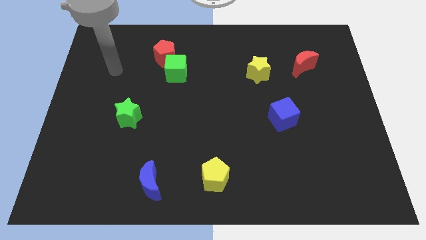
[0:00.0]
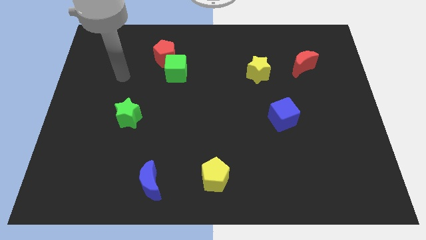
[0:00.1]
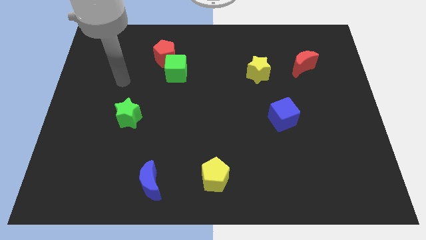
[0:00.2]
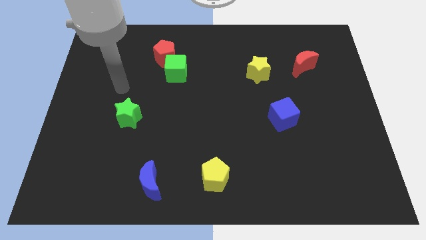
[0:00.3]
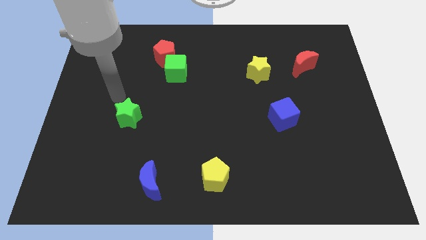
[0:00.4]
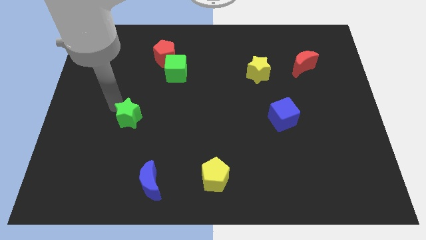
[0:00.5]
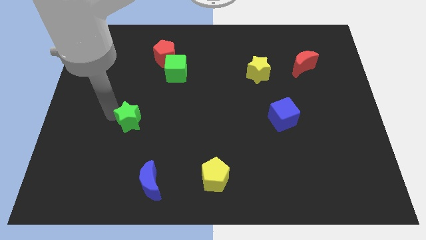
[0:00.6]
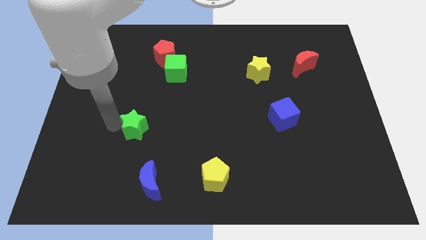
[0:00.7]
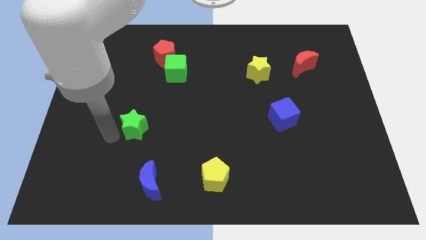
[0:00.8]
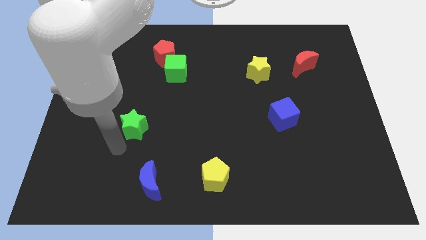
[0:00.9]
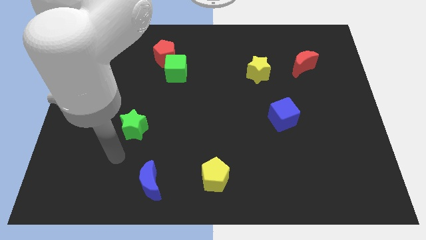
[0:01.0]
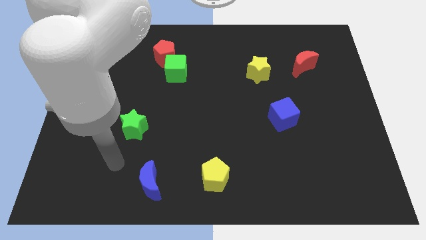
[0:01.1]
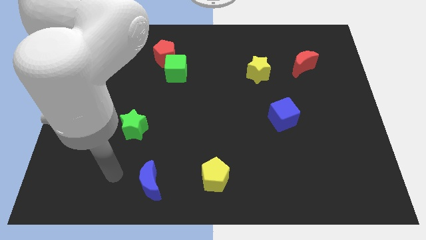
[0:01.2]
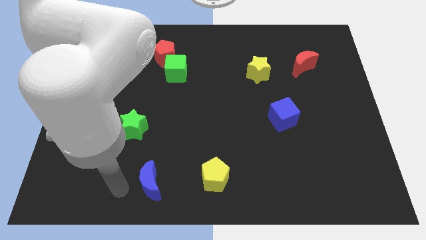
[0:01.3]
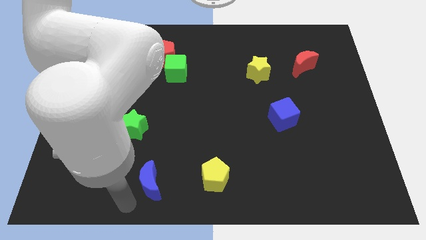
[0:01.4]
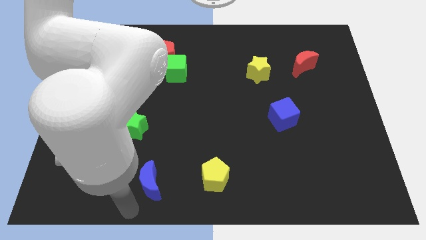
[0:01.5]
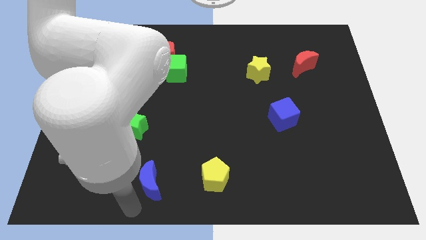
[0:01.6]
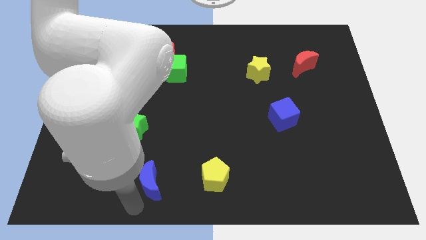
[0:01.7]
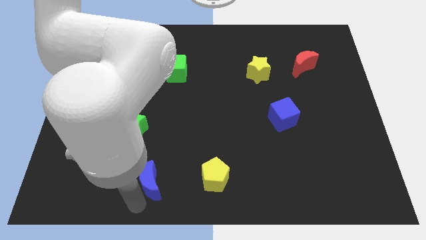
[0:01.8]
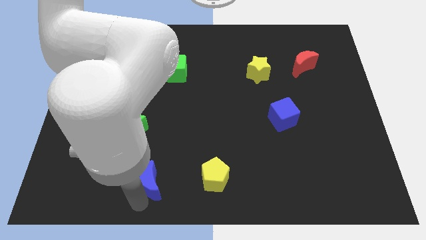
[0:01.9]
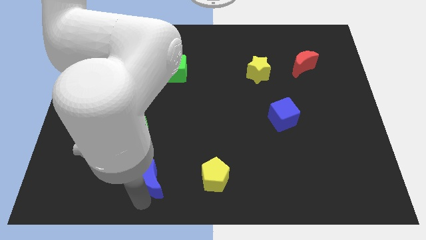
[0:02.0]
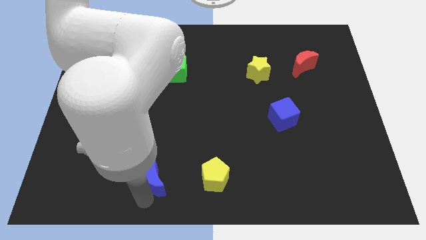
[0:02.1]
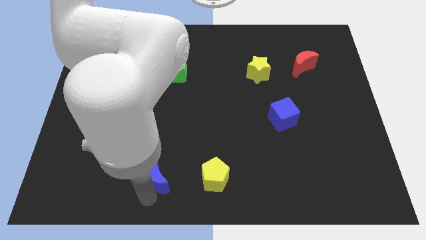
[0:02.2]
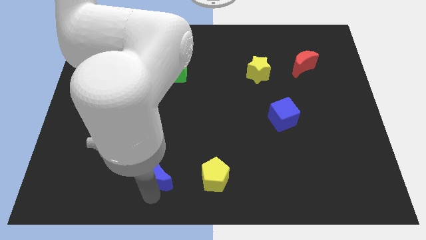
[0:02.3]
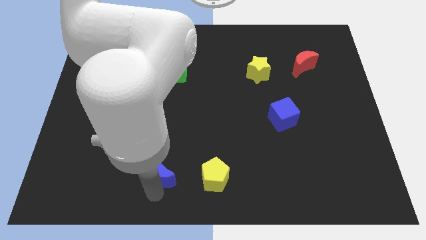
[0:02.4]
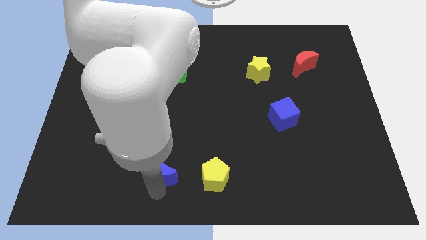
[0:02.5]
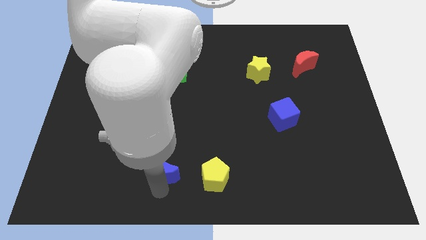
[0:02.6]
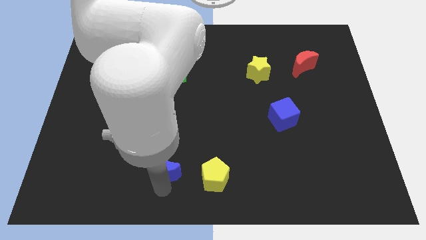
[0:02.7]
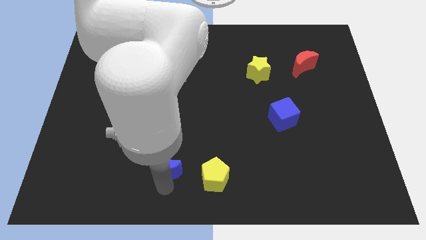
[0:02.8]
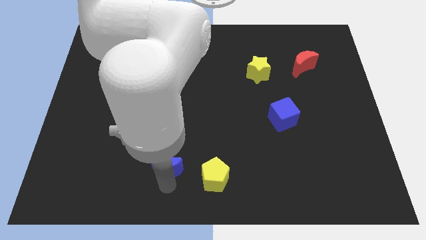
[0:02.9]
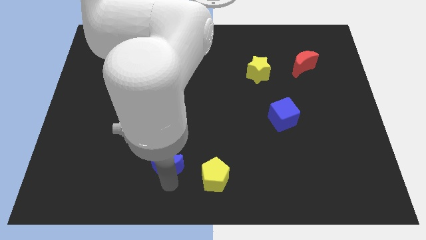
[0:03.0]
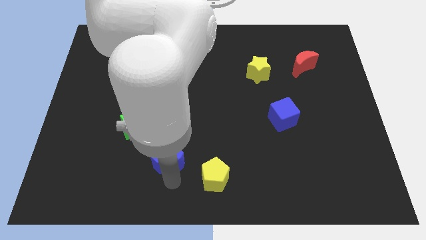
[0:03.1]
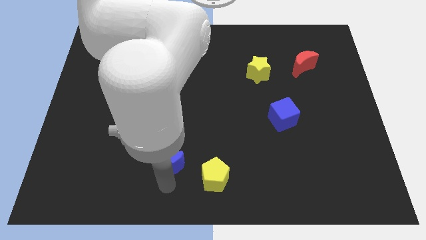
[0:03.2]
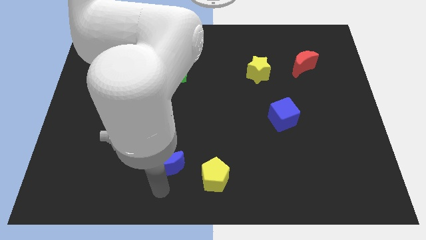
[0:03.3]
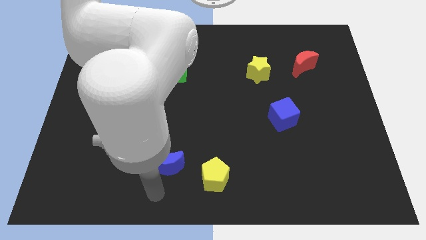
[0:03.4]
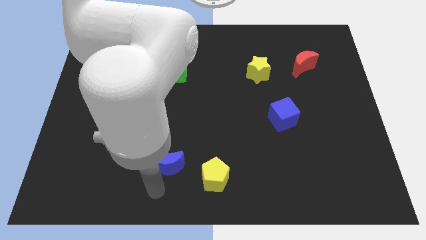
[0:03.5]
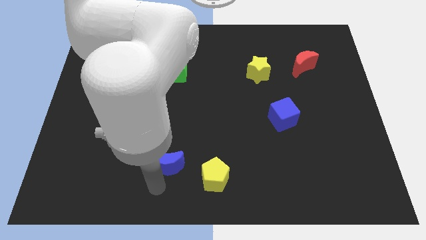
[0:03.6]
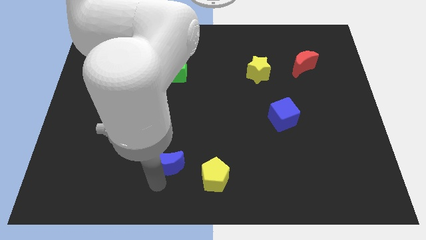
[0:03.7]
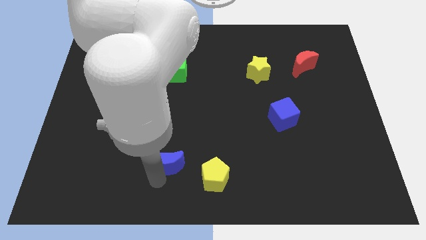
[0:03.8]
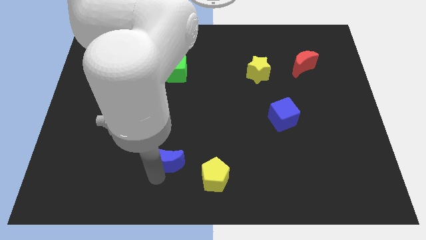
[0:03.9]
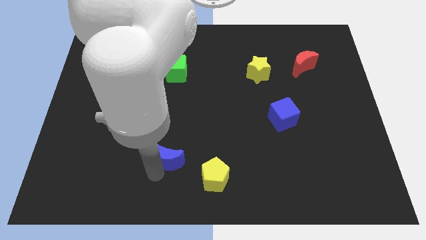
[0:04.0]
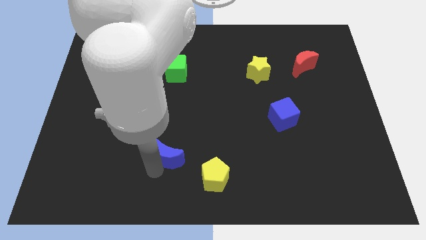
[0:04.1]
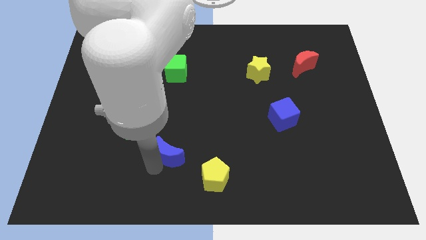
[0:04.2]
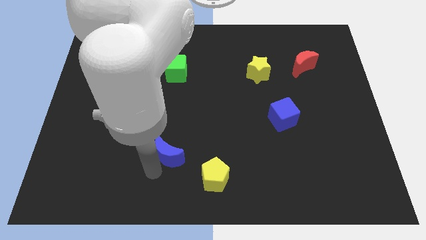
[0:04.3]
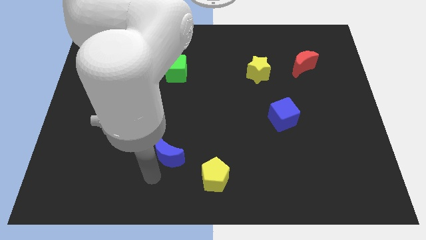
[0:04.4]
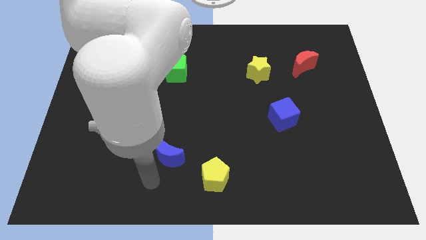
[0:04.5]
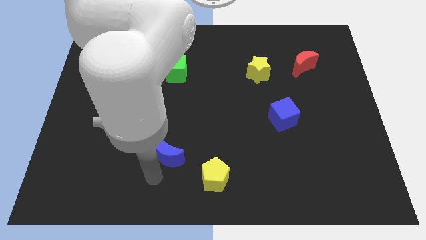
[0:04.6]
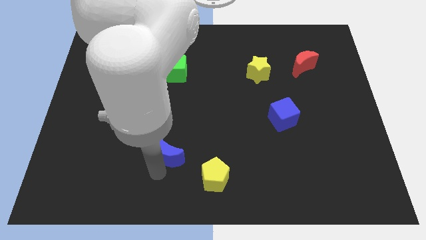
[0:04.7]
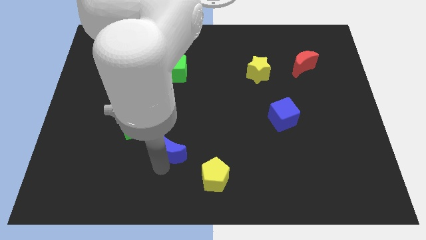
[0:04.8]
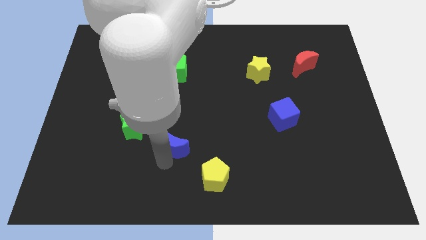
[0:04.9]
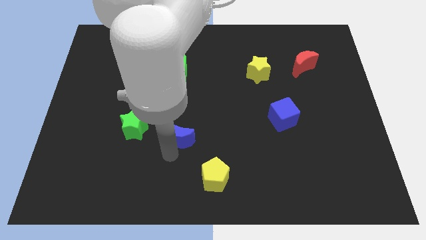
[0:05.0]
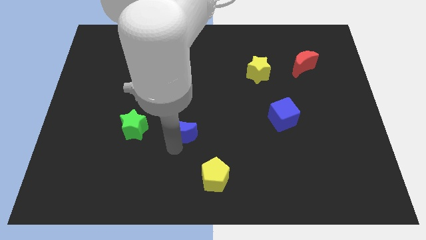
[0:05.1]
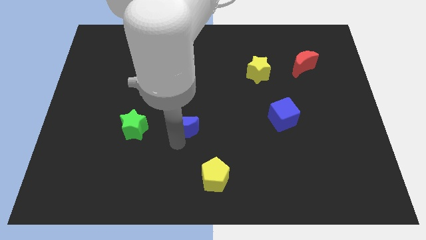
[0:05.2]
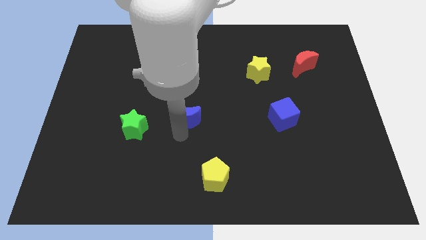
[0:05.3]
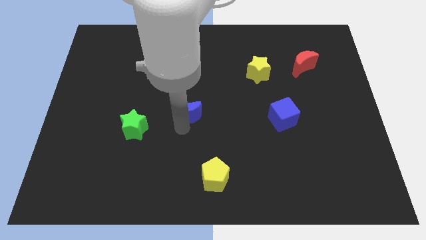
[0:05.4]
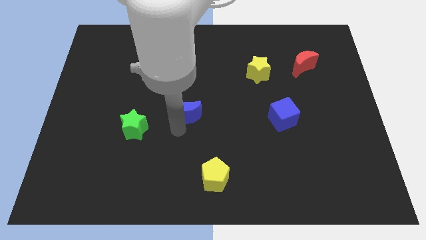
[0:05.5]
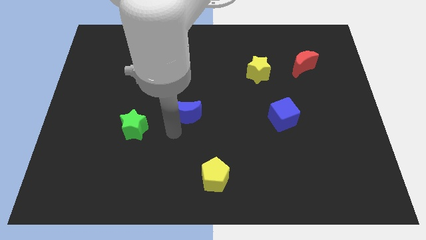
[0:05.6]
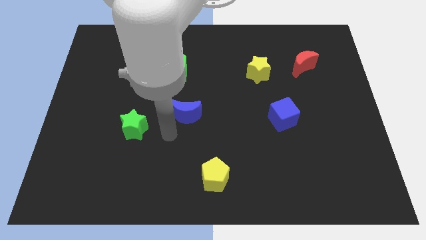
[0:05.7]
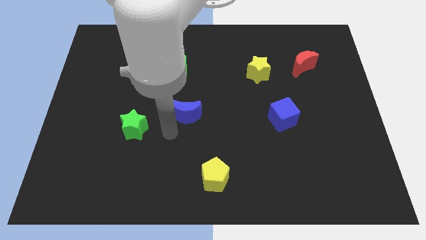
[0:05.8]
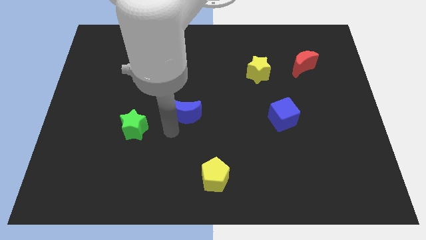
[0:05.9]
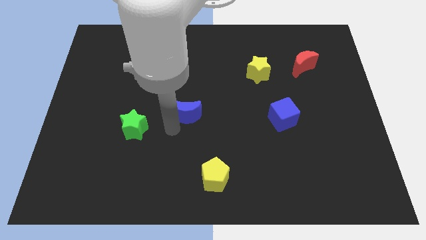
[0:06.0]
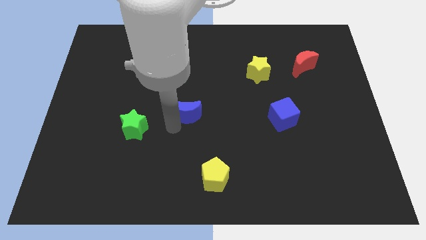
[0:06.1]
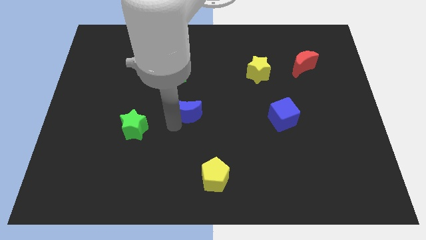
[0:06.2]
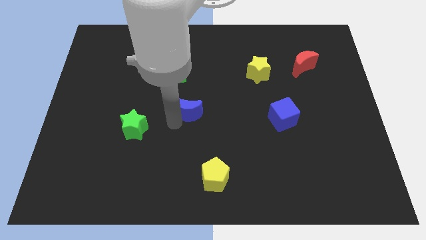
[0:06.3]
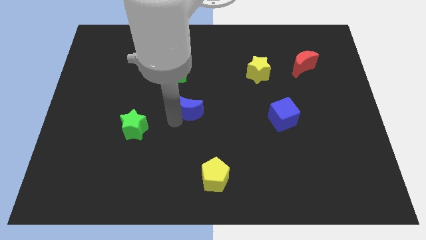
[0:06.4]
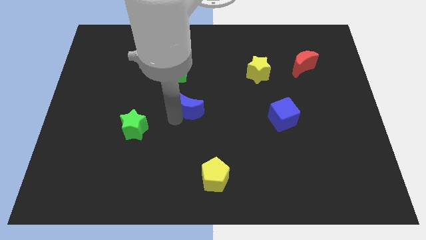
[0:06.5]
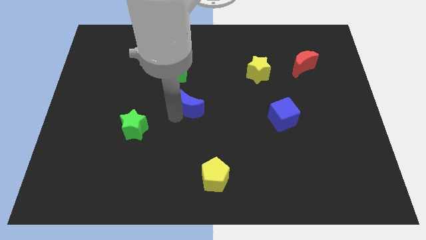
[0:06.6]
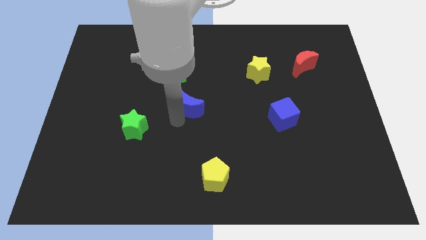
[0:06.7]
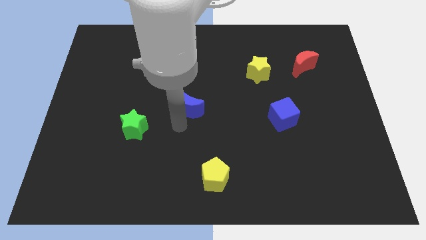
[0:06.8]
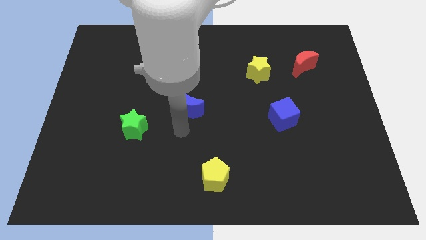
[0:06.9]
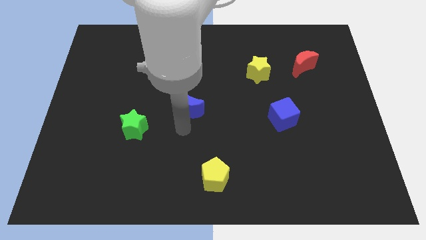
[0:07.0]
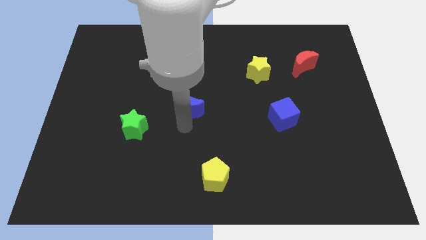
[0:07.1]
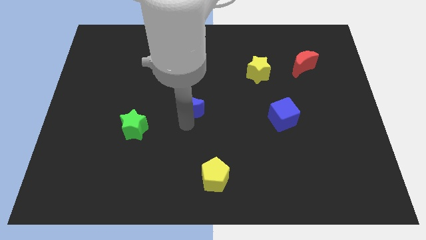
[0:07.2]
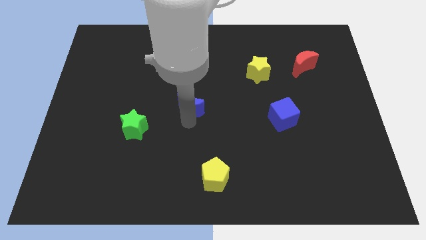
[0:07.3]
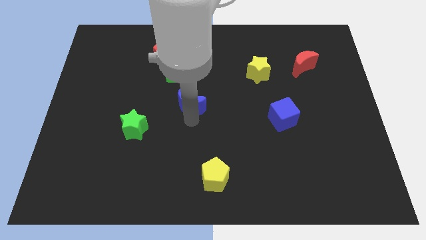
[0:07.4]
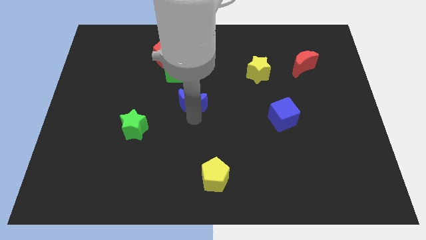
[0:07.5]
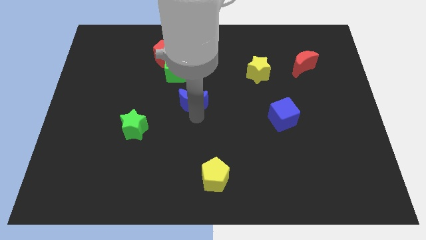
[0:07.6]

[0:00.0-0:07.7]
slide the blue moon to the bottom right side of the green cube

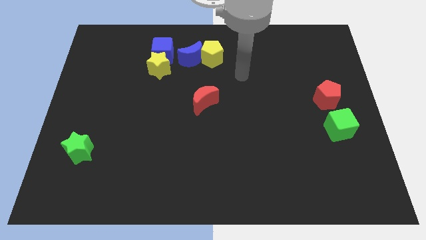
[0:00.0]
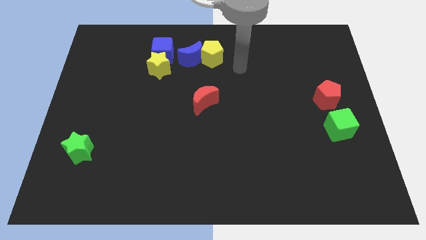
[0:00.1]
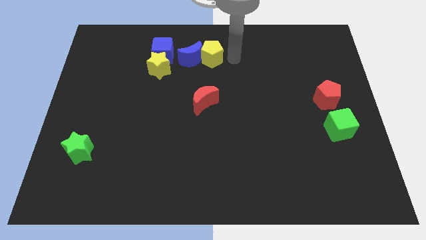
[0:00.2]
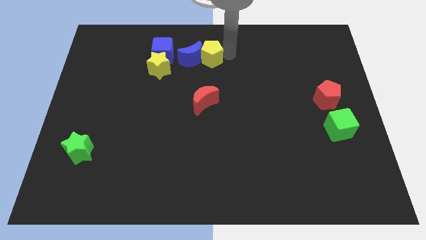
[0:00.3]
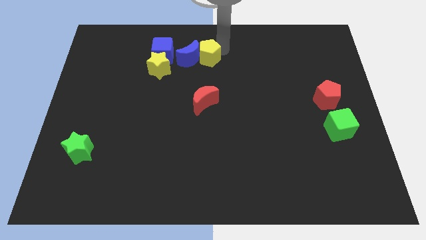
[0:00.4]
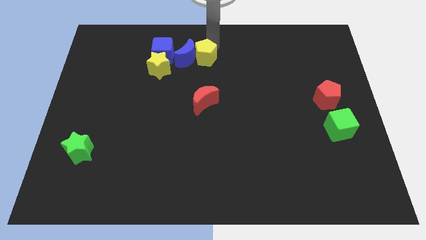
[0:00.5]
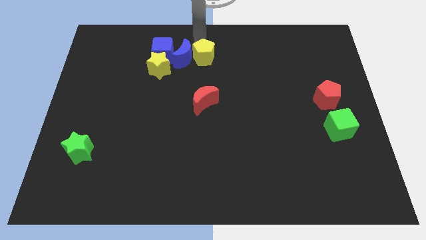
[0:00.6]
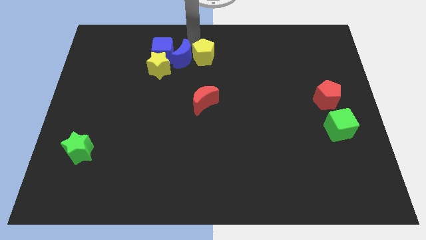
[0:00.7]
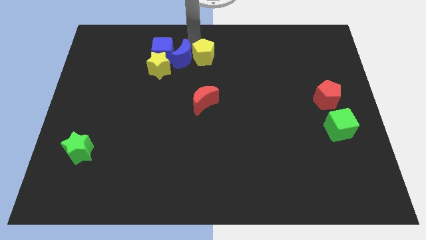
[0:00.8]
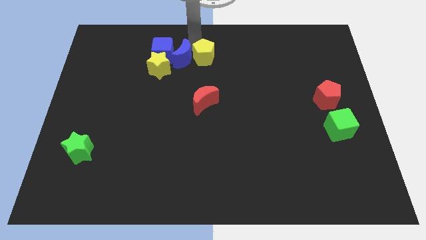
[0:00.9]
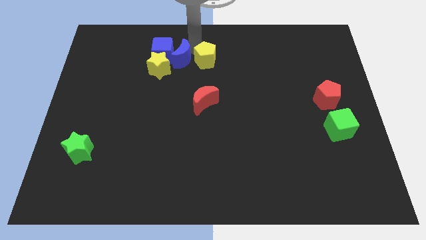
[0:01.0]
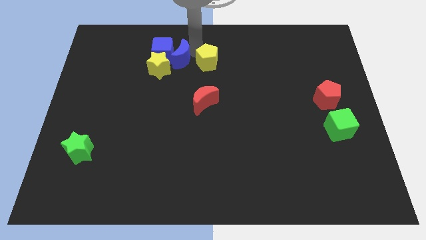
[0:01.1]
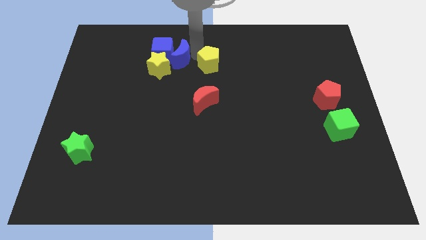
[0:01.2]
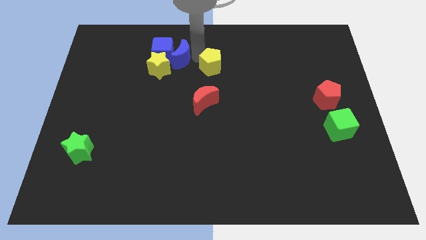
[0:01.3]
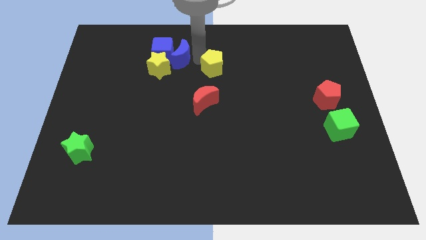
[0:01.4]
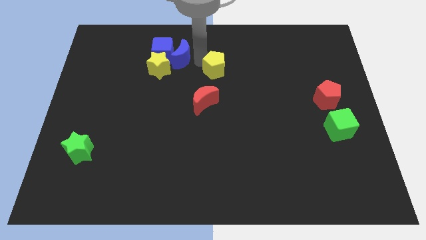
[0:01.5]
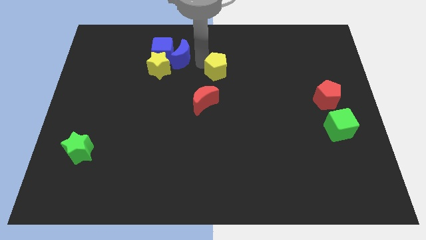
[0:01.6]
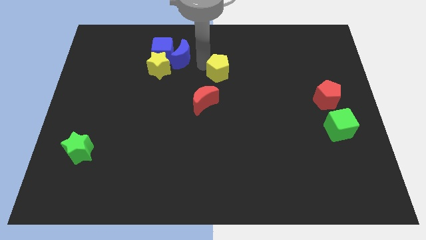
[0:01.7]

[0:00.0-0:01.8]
push the yellow pentagon diagonally up and to the right of the red moon
